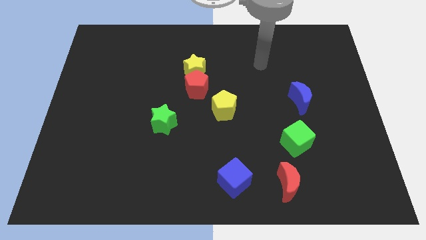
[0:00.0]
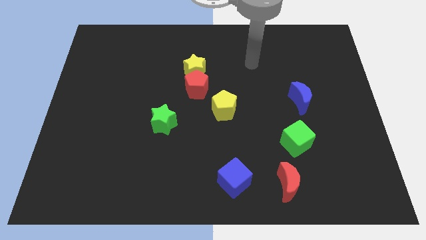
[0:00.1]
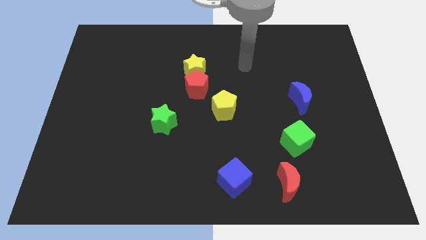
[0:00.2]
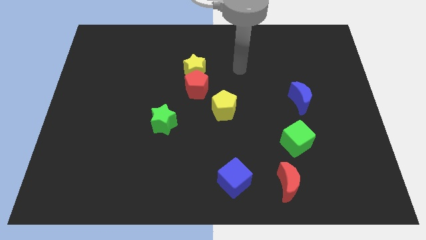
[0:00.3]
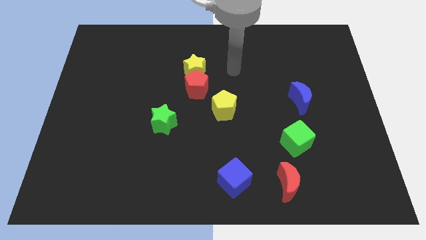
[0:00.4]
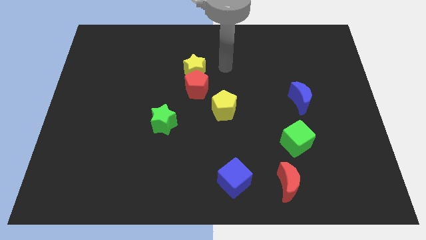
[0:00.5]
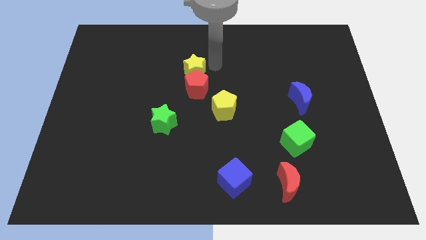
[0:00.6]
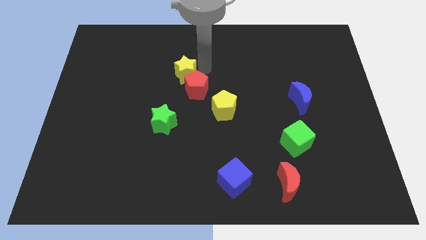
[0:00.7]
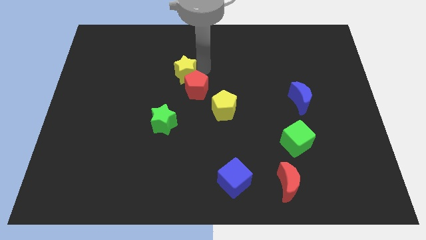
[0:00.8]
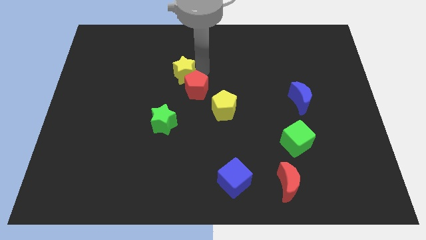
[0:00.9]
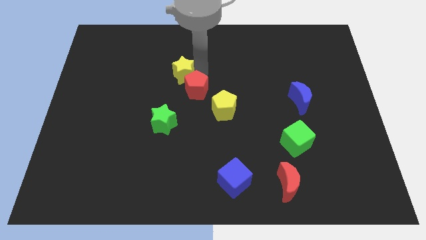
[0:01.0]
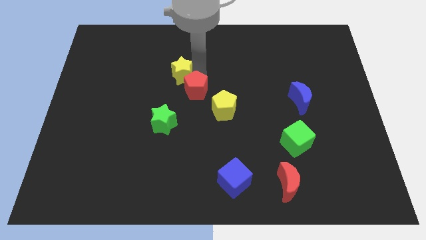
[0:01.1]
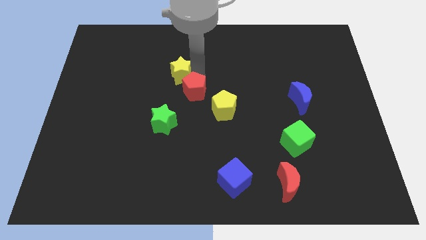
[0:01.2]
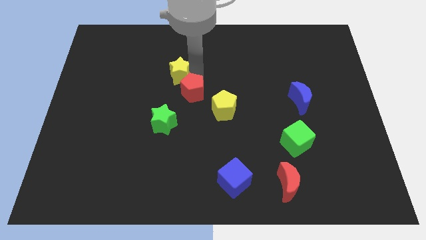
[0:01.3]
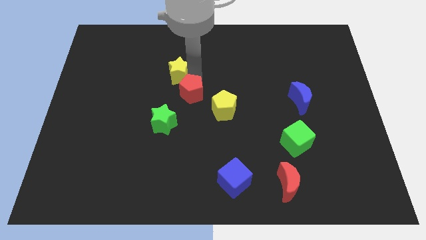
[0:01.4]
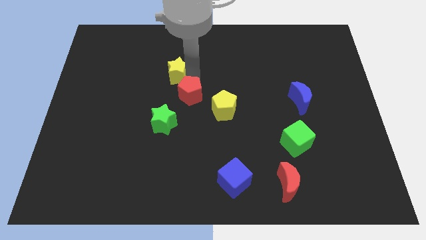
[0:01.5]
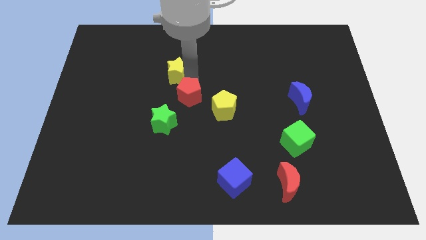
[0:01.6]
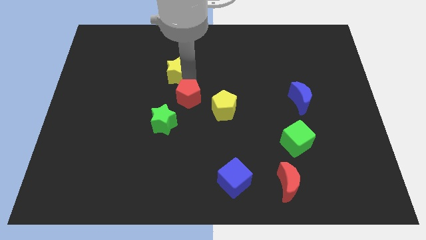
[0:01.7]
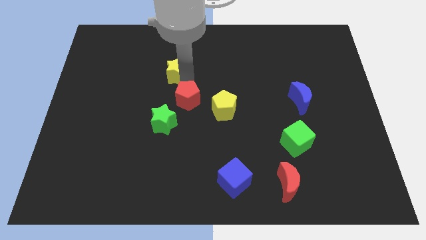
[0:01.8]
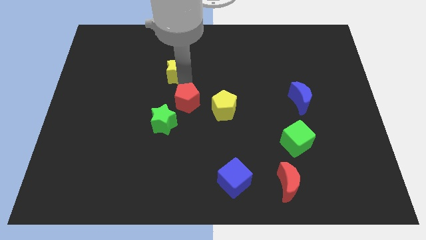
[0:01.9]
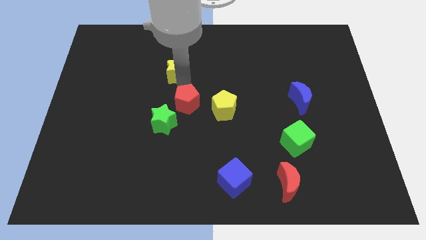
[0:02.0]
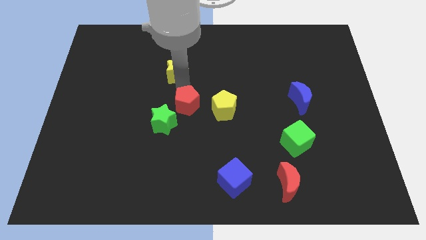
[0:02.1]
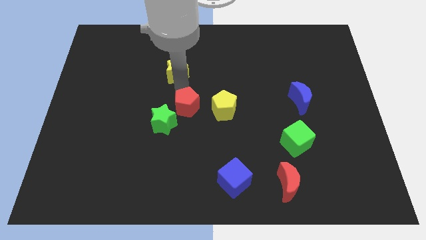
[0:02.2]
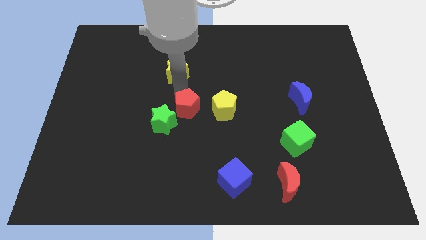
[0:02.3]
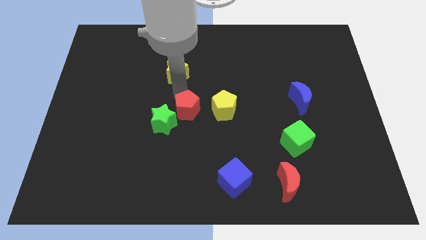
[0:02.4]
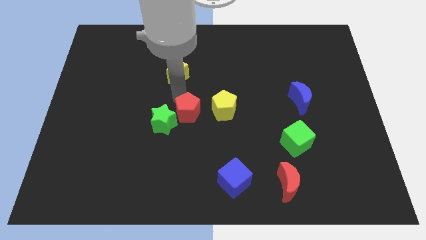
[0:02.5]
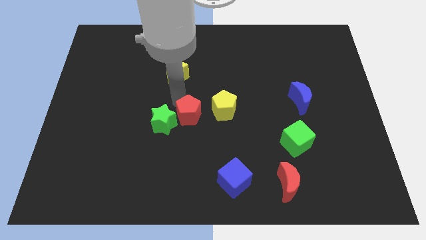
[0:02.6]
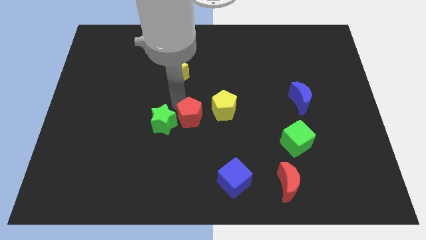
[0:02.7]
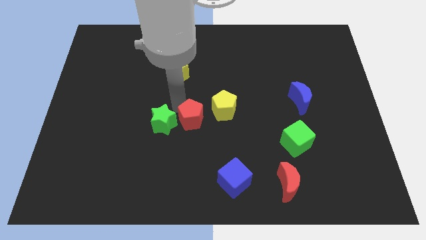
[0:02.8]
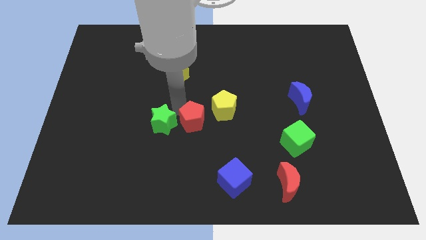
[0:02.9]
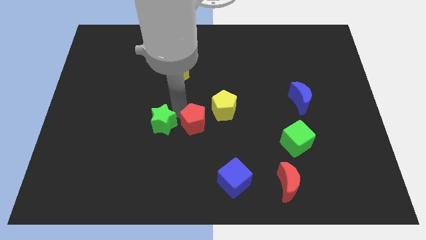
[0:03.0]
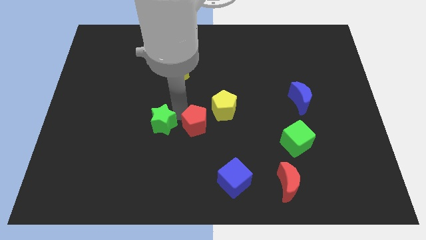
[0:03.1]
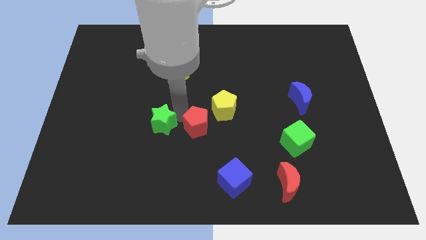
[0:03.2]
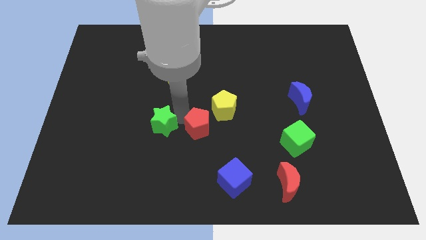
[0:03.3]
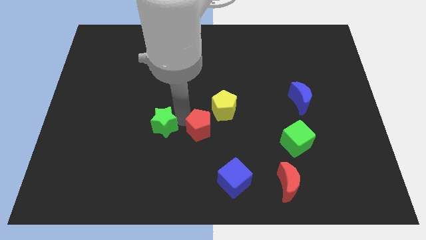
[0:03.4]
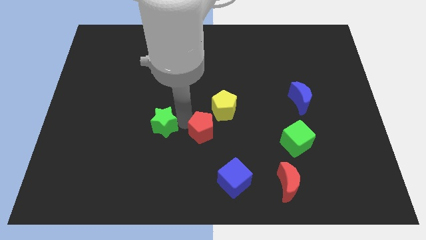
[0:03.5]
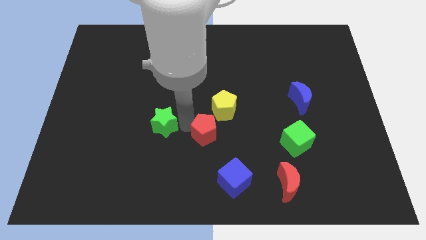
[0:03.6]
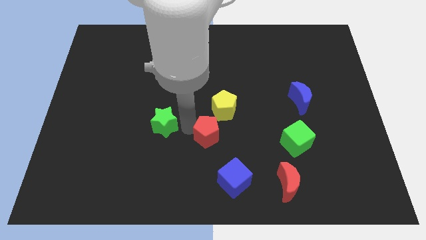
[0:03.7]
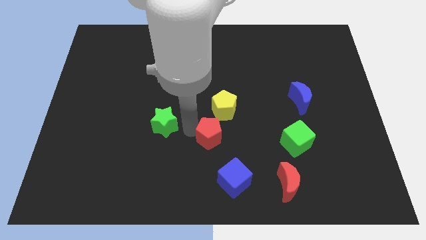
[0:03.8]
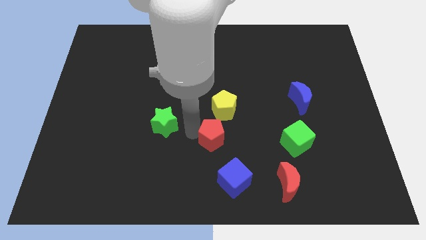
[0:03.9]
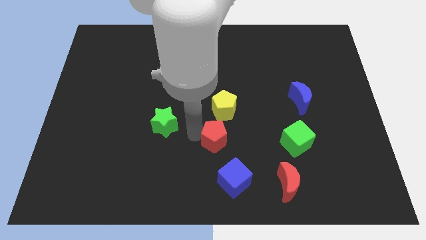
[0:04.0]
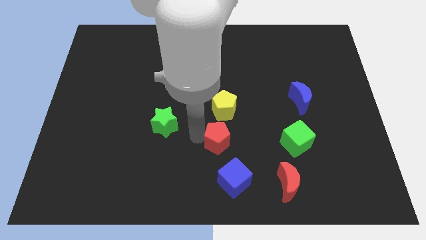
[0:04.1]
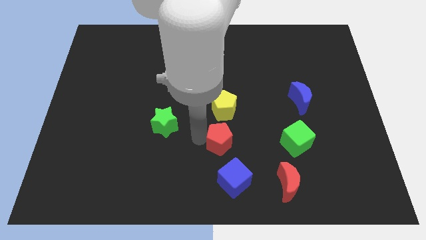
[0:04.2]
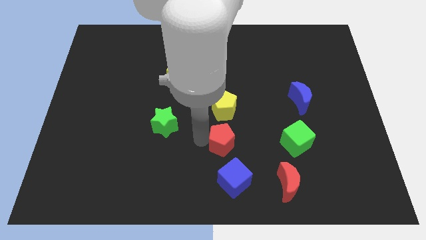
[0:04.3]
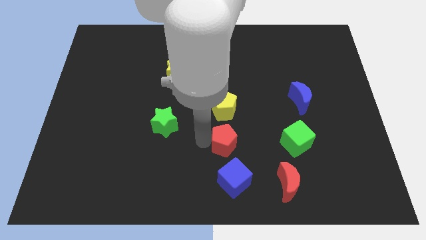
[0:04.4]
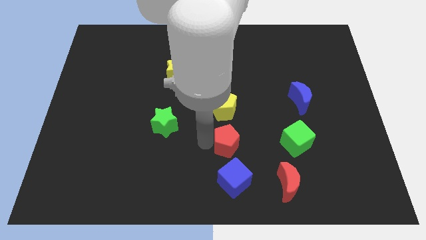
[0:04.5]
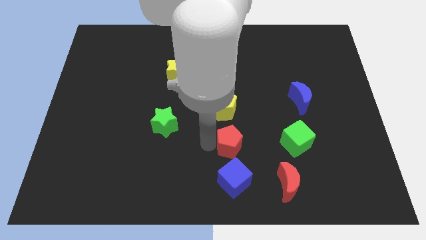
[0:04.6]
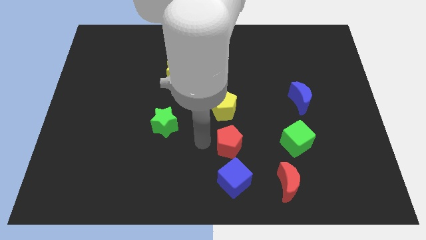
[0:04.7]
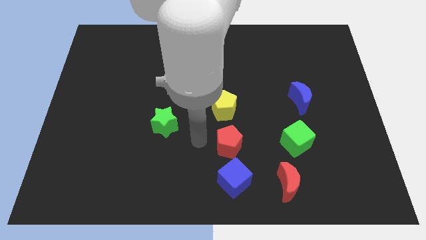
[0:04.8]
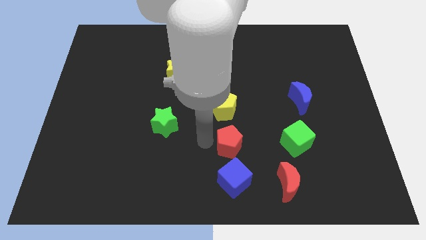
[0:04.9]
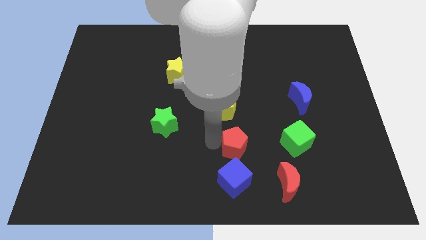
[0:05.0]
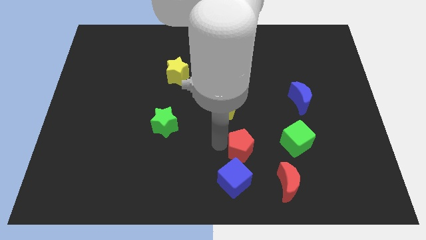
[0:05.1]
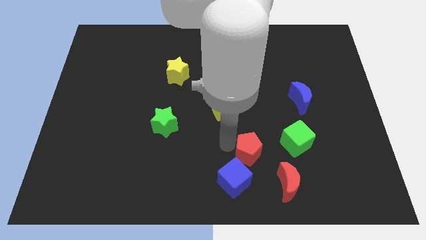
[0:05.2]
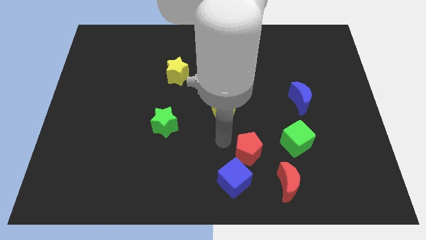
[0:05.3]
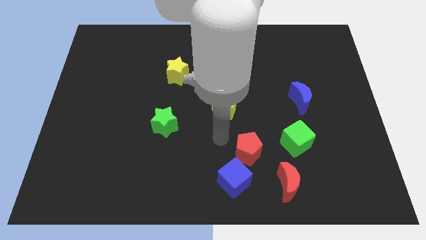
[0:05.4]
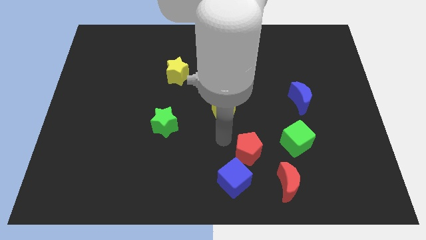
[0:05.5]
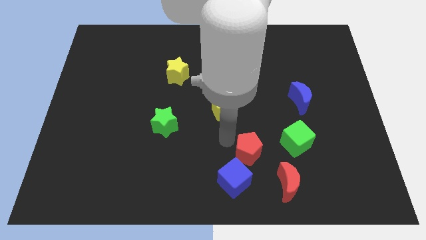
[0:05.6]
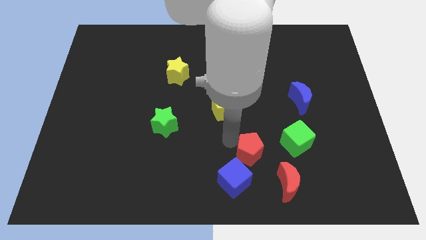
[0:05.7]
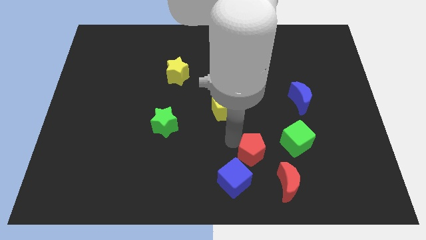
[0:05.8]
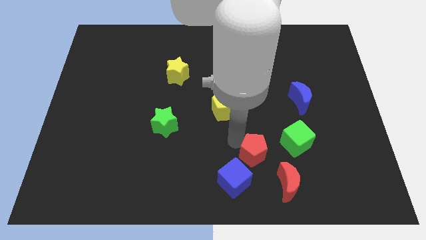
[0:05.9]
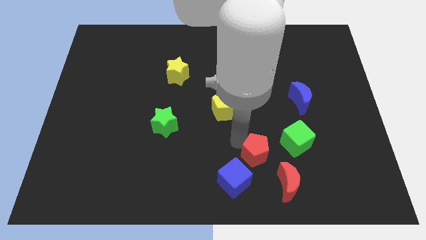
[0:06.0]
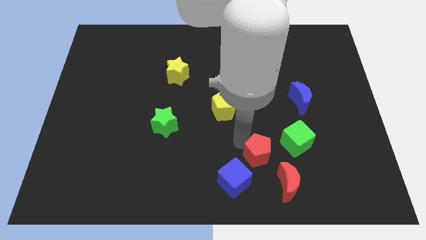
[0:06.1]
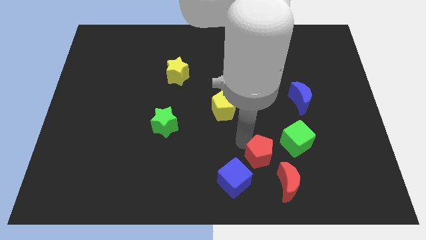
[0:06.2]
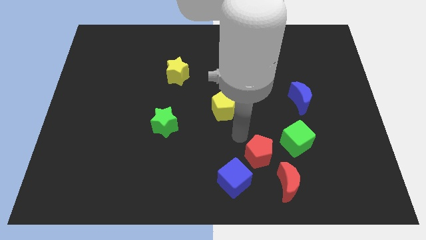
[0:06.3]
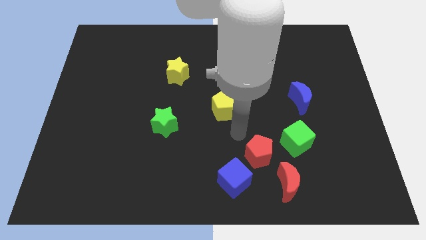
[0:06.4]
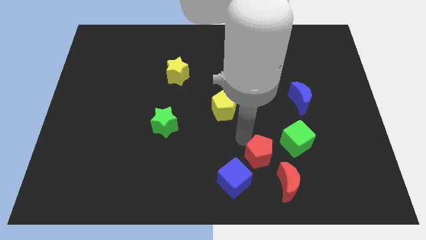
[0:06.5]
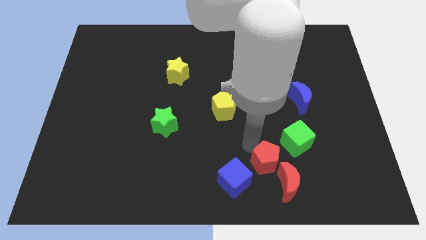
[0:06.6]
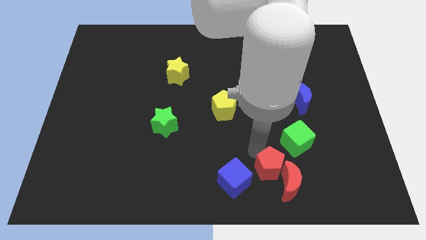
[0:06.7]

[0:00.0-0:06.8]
push the red pentagon towards the red moon

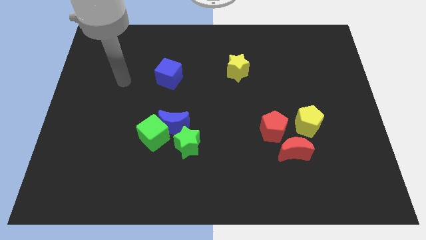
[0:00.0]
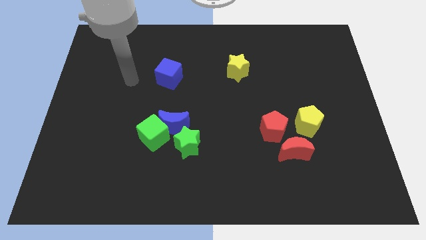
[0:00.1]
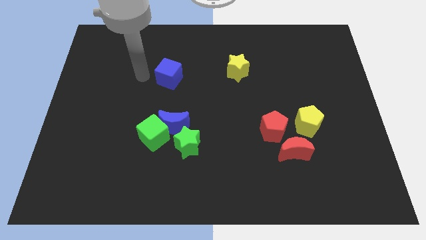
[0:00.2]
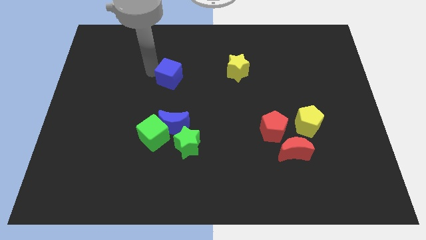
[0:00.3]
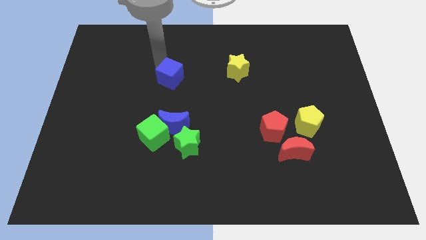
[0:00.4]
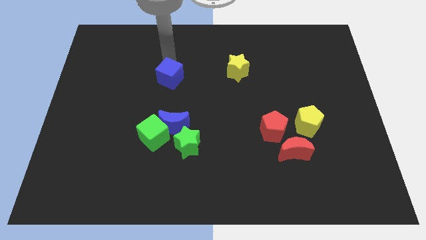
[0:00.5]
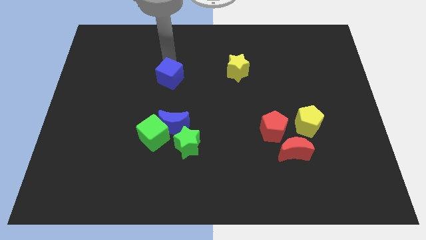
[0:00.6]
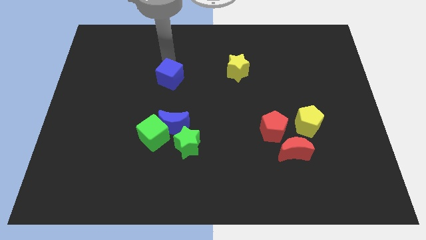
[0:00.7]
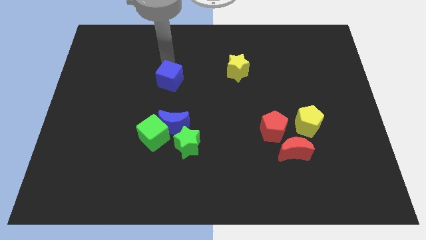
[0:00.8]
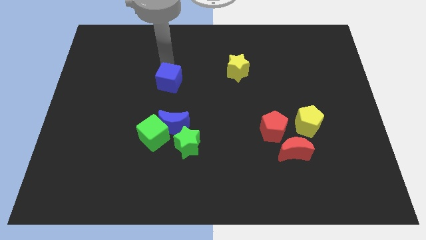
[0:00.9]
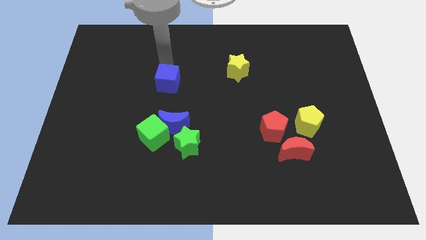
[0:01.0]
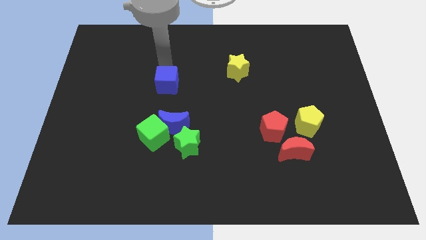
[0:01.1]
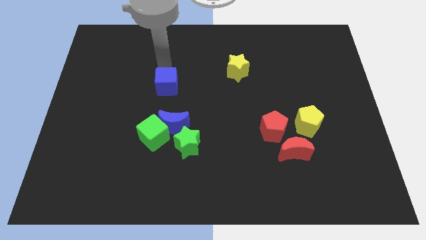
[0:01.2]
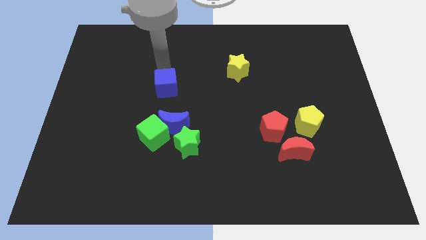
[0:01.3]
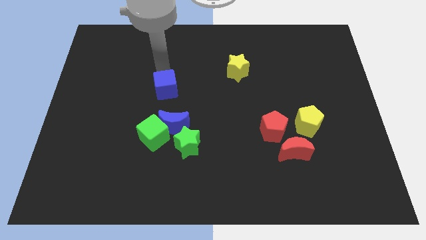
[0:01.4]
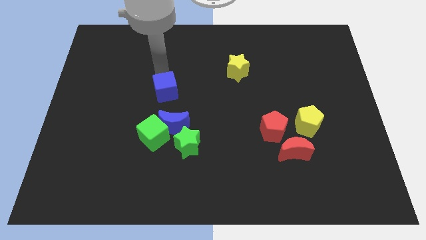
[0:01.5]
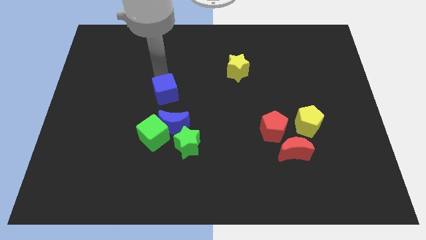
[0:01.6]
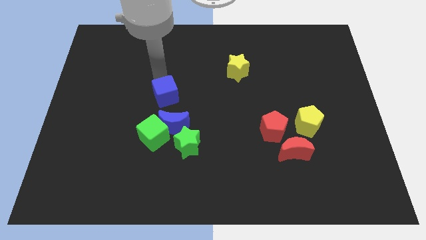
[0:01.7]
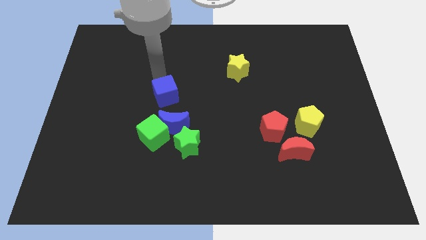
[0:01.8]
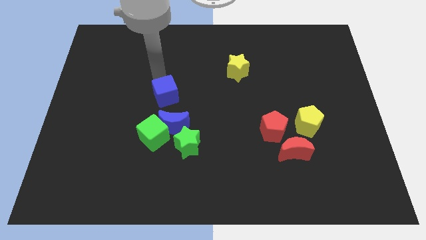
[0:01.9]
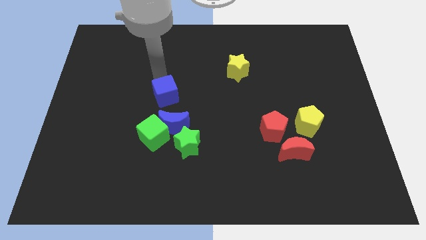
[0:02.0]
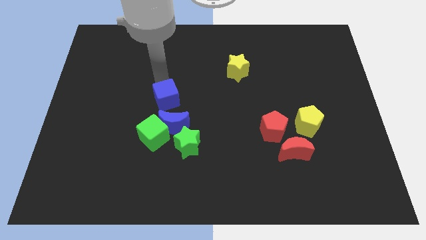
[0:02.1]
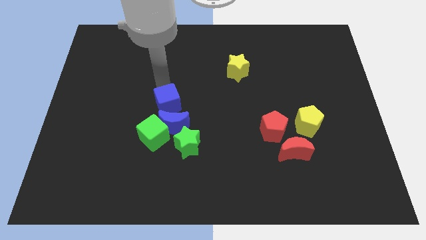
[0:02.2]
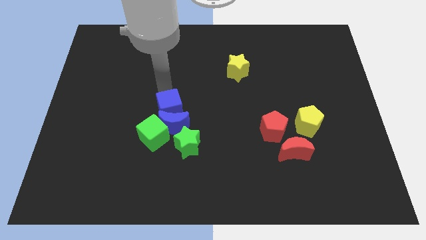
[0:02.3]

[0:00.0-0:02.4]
push the blue cube next to the blue moon
